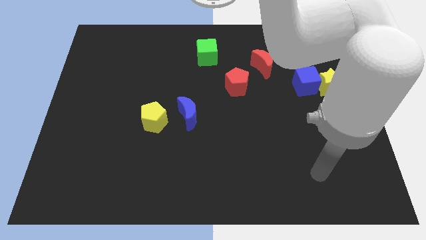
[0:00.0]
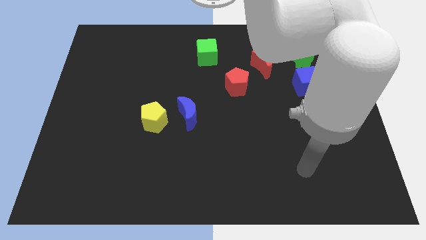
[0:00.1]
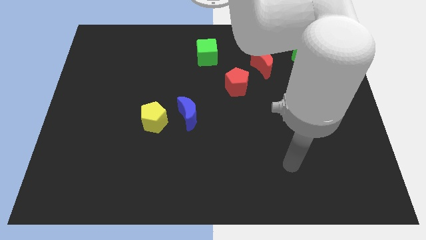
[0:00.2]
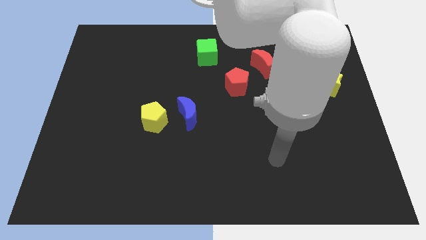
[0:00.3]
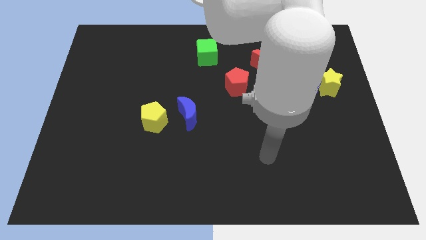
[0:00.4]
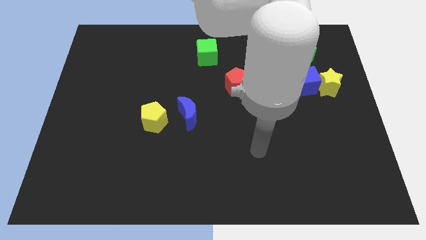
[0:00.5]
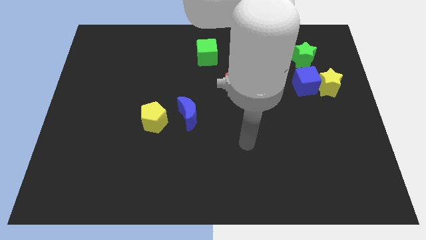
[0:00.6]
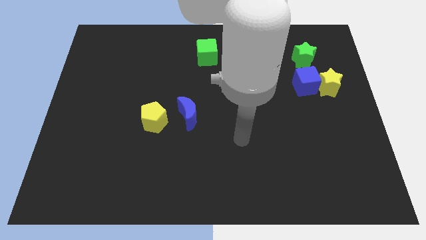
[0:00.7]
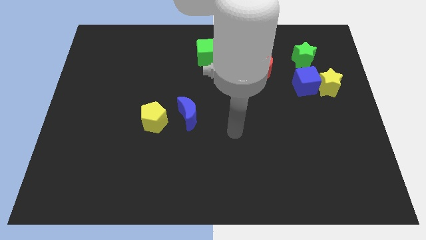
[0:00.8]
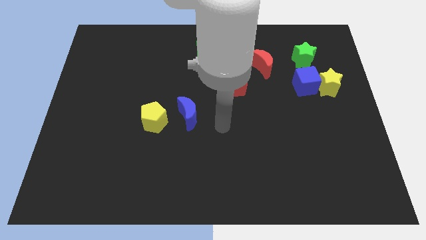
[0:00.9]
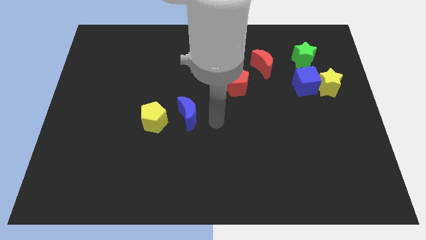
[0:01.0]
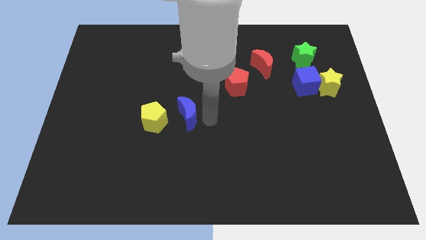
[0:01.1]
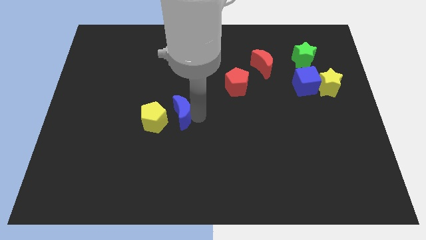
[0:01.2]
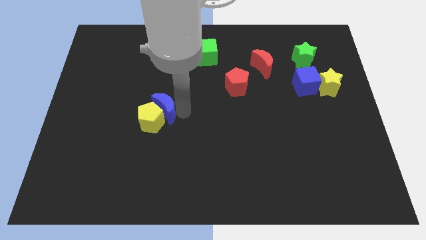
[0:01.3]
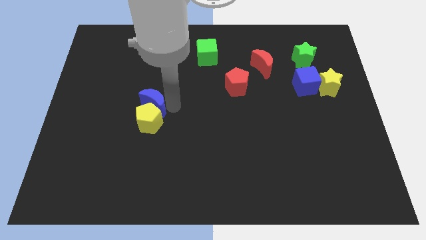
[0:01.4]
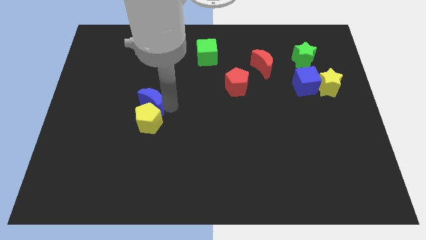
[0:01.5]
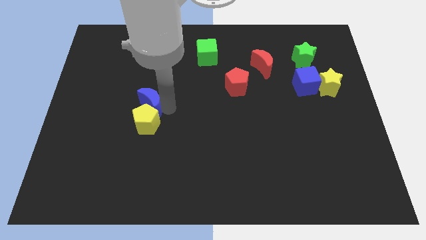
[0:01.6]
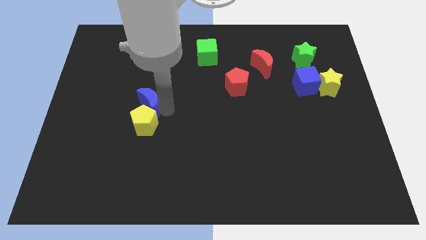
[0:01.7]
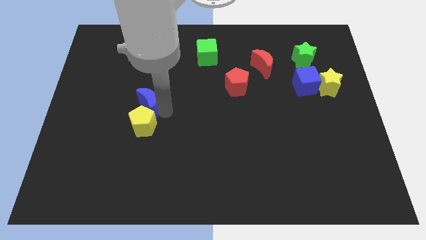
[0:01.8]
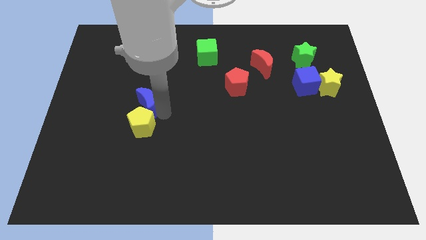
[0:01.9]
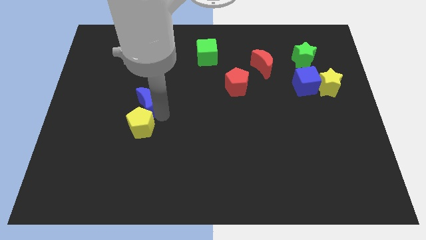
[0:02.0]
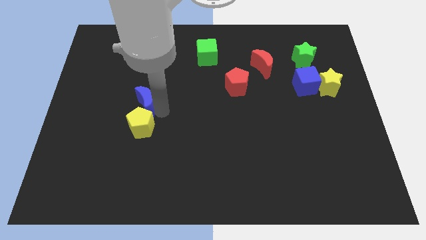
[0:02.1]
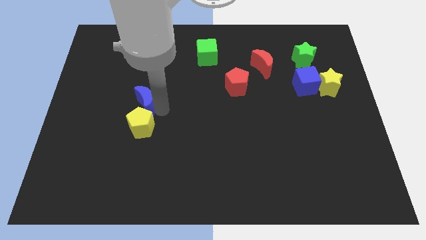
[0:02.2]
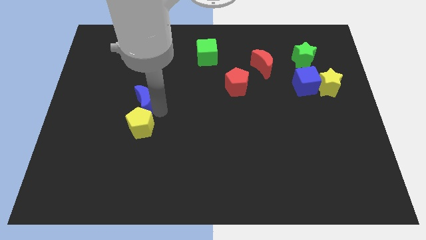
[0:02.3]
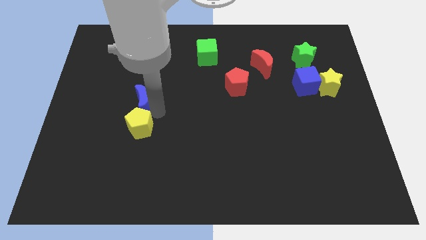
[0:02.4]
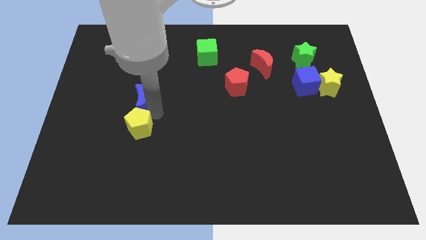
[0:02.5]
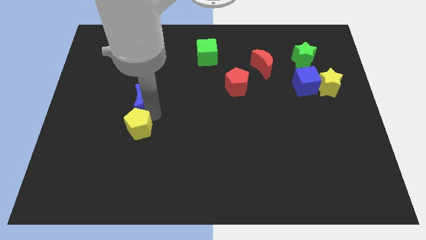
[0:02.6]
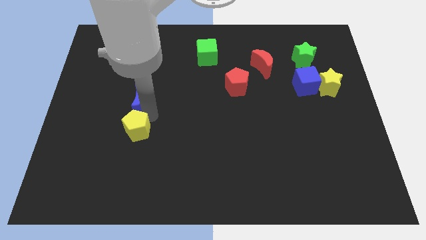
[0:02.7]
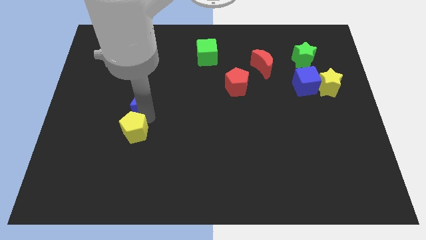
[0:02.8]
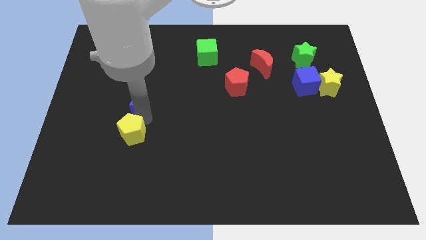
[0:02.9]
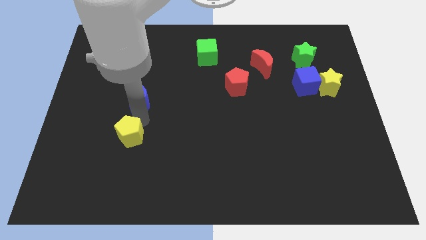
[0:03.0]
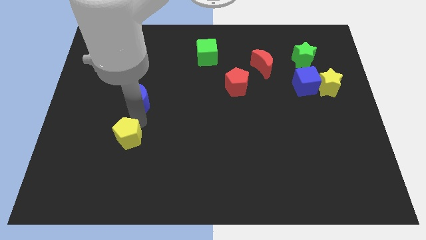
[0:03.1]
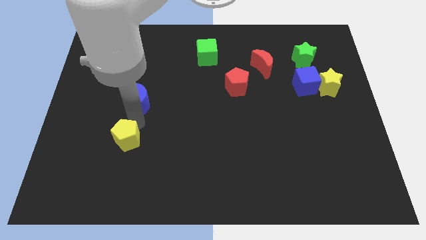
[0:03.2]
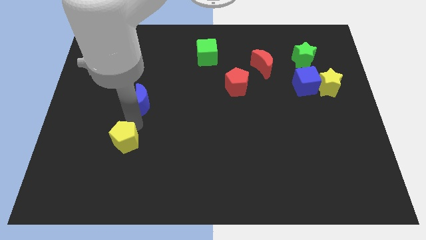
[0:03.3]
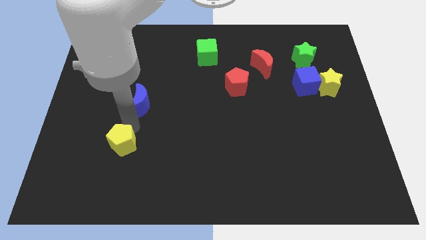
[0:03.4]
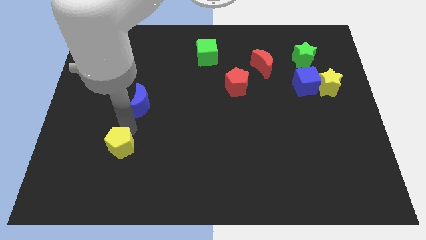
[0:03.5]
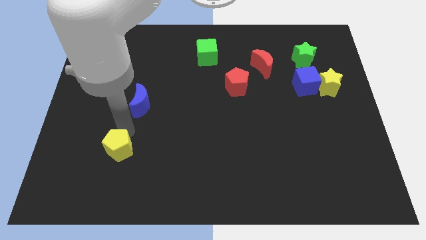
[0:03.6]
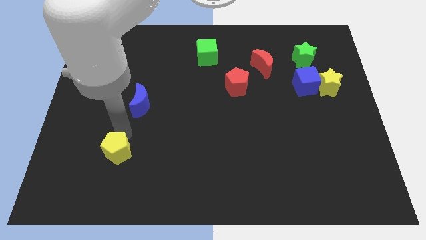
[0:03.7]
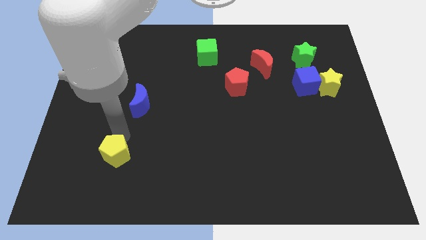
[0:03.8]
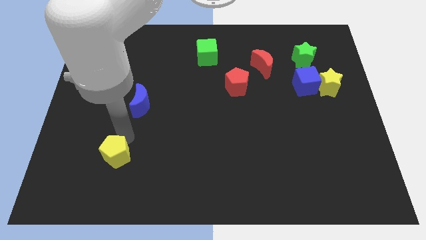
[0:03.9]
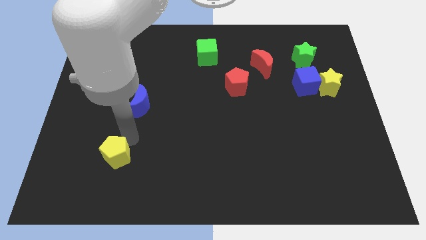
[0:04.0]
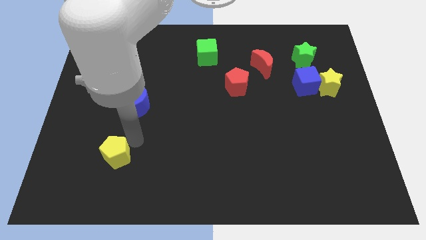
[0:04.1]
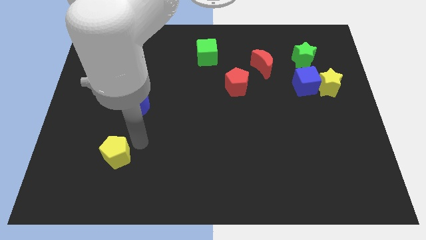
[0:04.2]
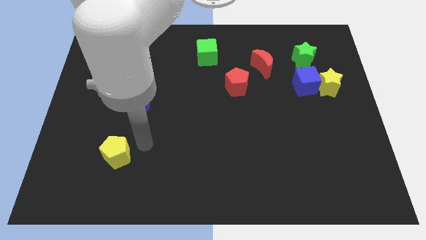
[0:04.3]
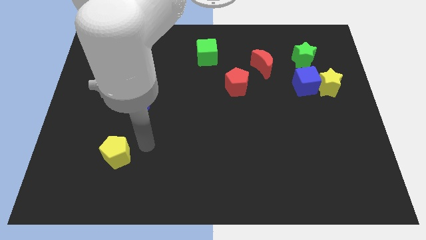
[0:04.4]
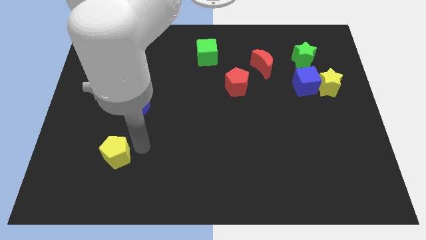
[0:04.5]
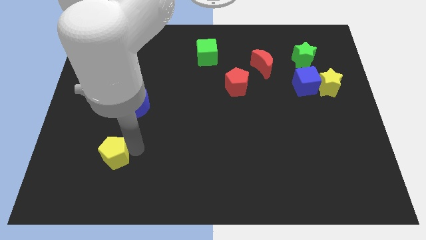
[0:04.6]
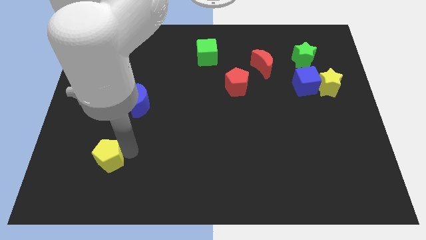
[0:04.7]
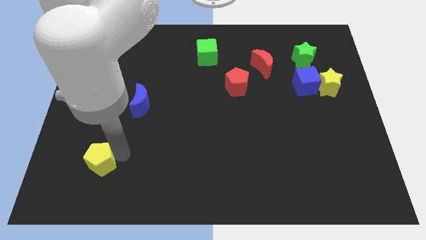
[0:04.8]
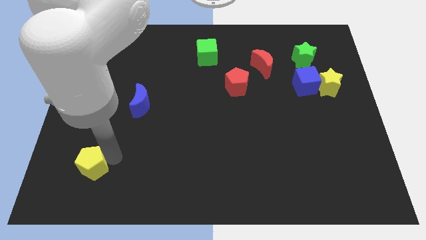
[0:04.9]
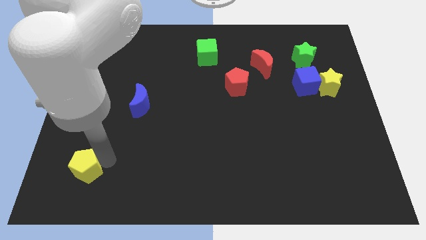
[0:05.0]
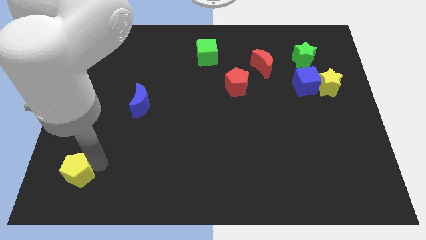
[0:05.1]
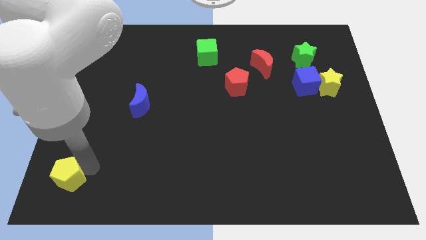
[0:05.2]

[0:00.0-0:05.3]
slide the yellow pentagon to the bottom left

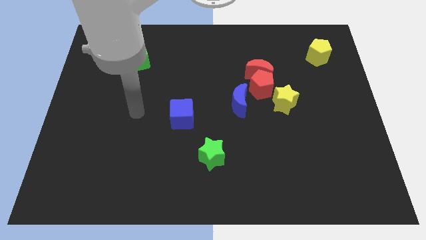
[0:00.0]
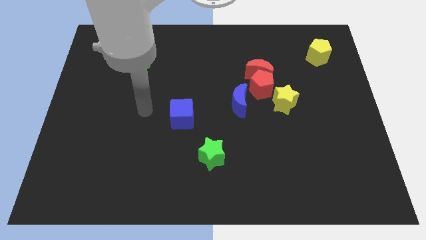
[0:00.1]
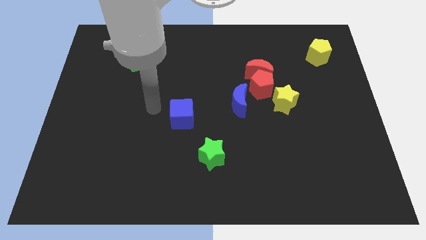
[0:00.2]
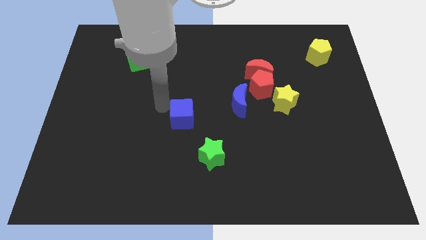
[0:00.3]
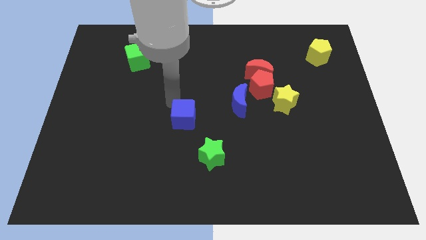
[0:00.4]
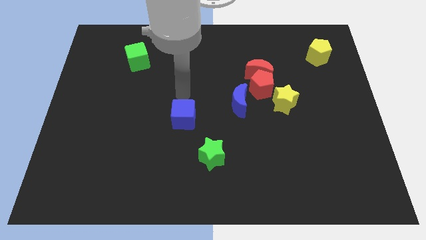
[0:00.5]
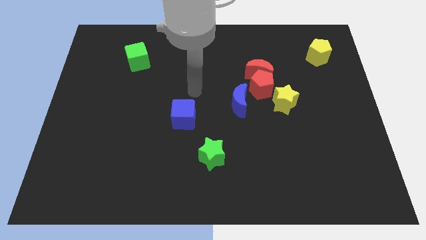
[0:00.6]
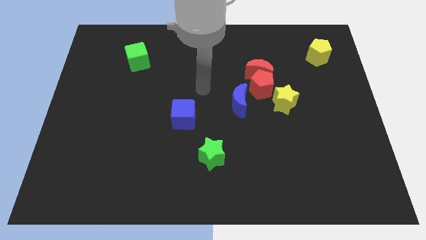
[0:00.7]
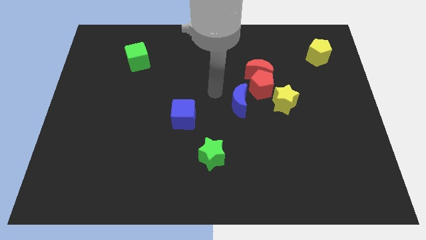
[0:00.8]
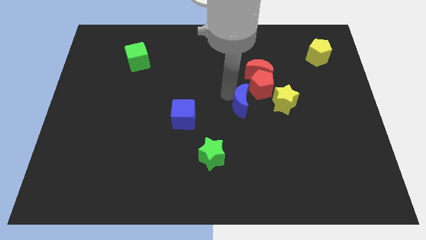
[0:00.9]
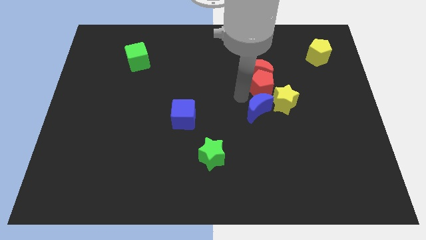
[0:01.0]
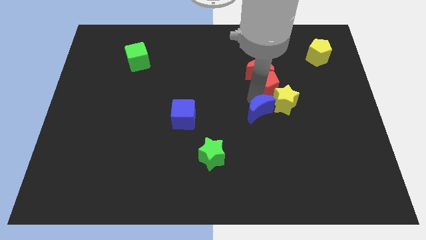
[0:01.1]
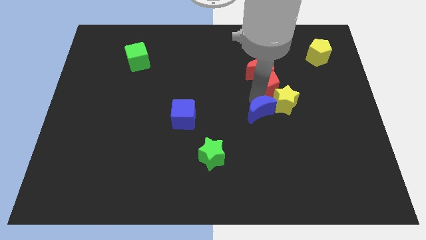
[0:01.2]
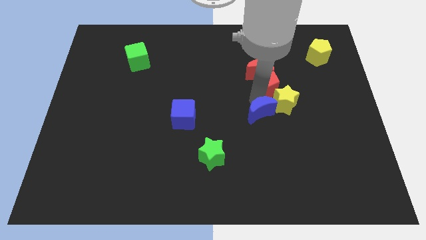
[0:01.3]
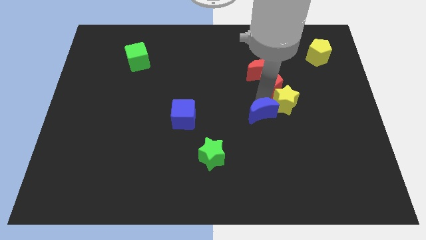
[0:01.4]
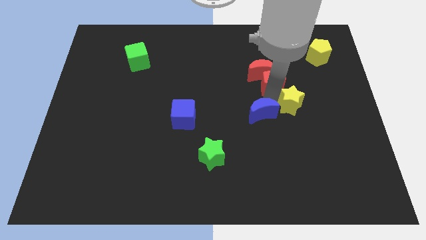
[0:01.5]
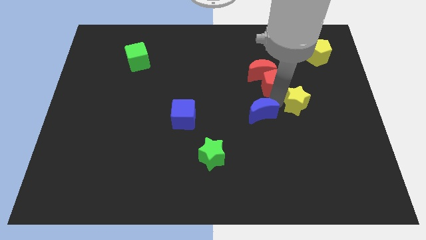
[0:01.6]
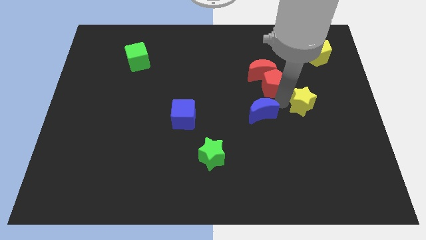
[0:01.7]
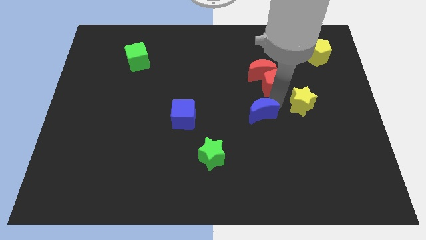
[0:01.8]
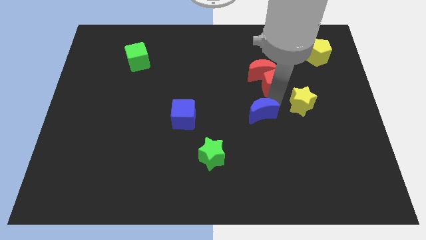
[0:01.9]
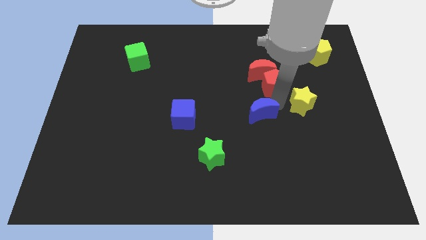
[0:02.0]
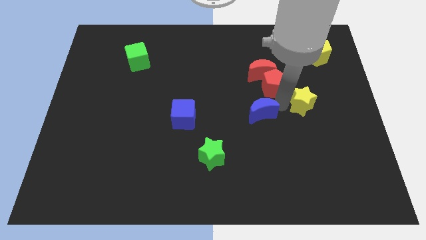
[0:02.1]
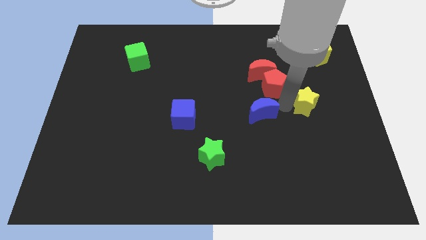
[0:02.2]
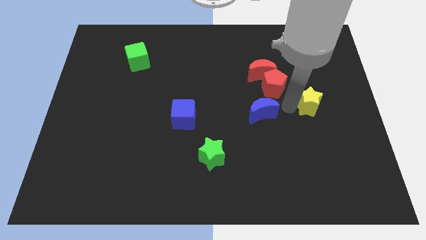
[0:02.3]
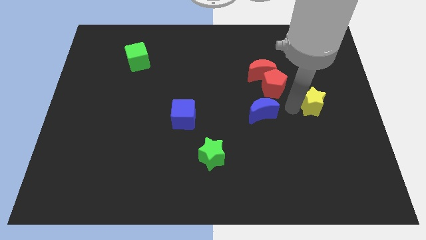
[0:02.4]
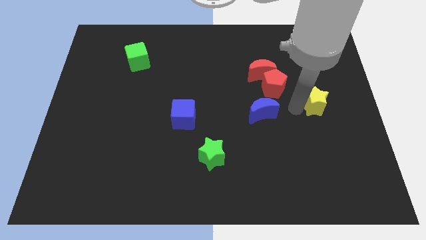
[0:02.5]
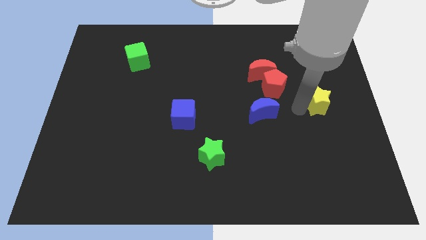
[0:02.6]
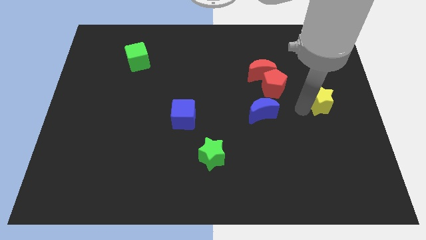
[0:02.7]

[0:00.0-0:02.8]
put the yellow star to the right side of the board
